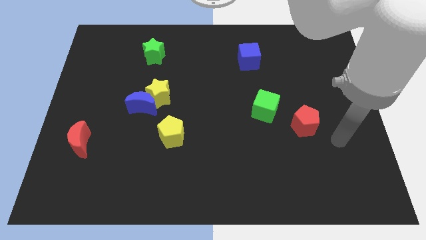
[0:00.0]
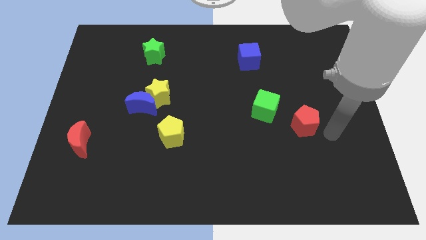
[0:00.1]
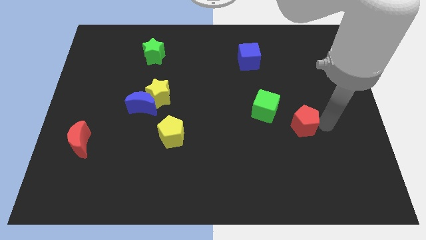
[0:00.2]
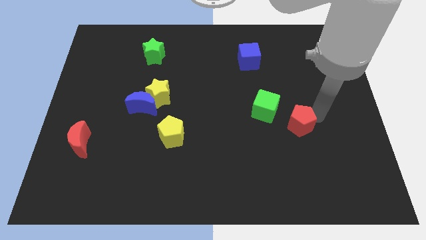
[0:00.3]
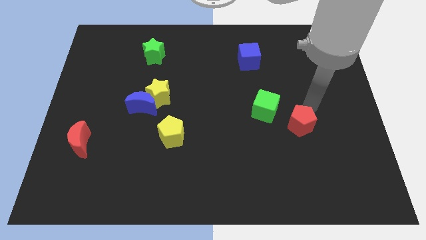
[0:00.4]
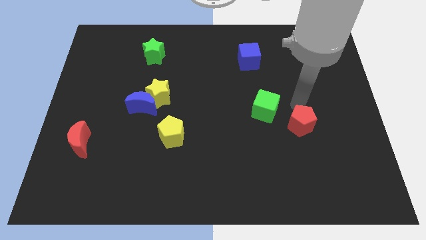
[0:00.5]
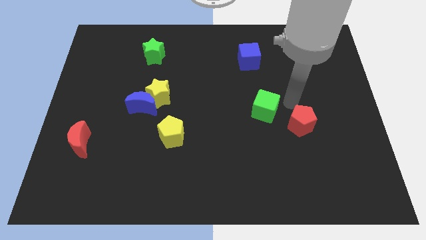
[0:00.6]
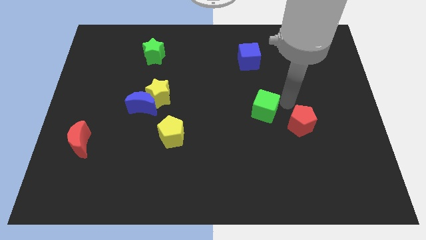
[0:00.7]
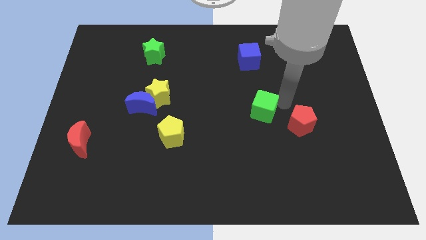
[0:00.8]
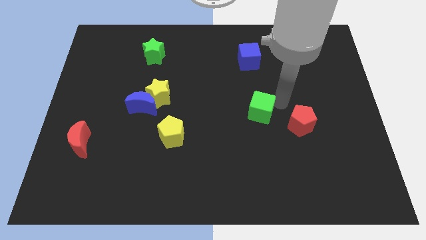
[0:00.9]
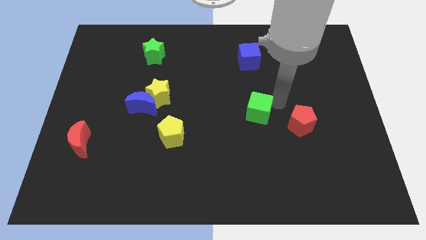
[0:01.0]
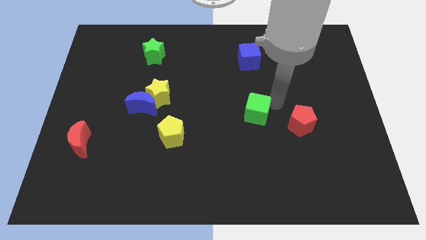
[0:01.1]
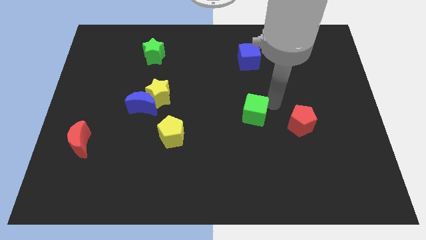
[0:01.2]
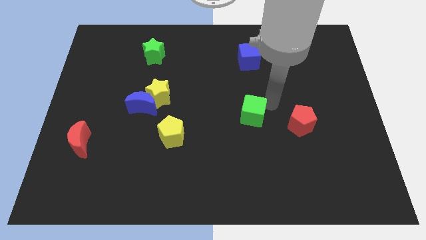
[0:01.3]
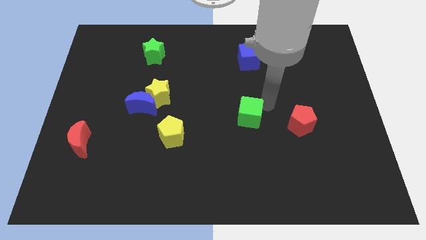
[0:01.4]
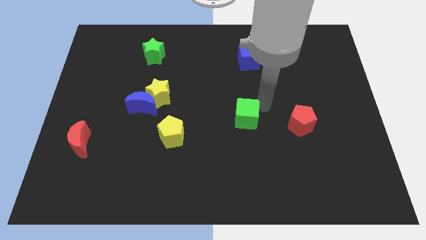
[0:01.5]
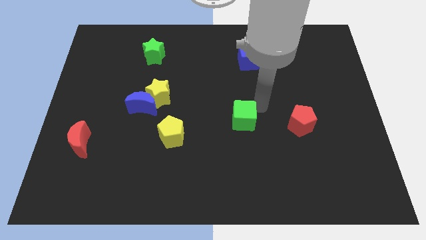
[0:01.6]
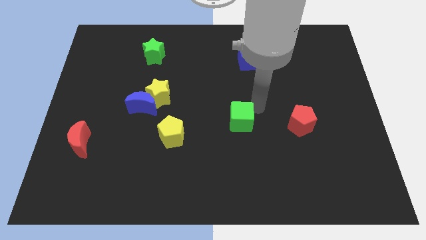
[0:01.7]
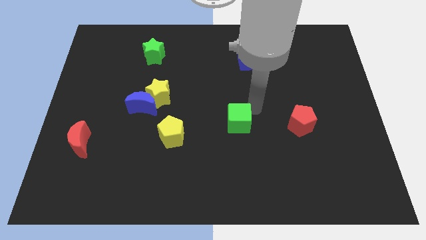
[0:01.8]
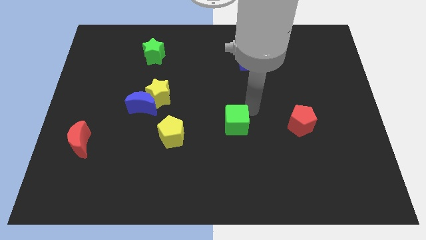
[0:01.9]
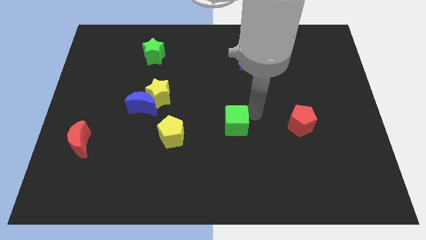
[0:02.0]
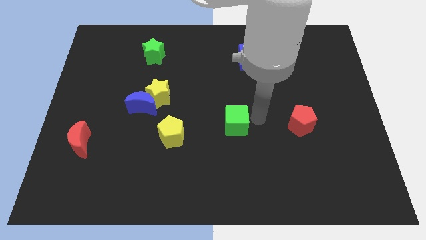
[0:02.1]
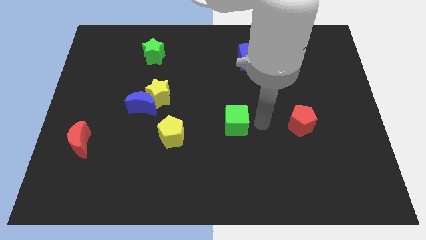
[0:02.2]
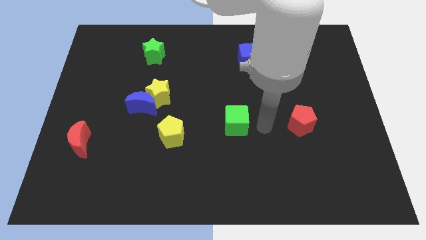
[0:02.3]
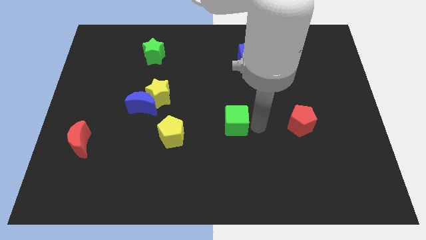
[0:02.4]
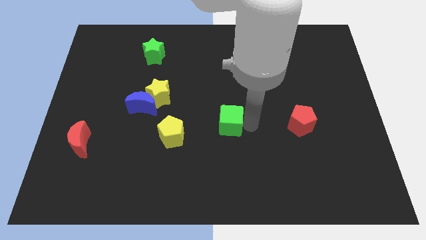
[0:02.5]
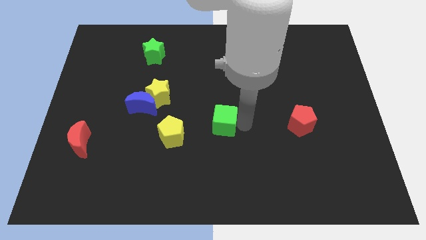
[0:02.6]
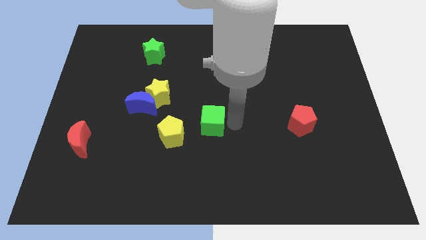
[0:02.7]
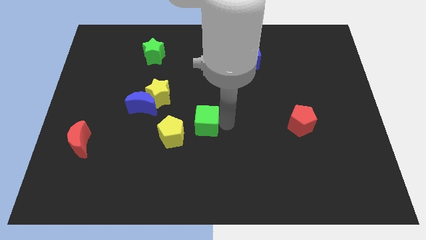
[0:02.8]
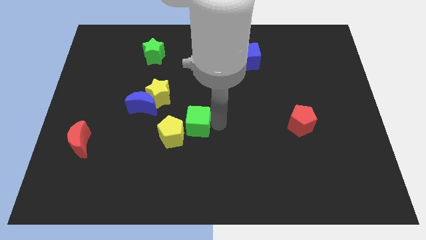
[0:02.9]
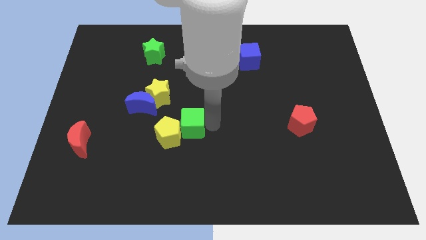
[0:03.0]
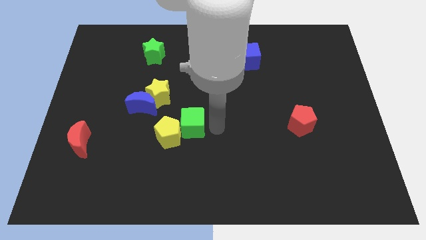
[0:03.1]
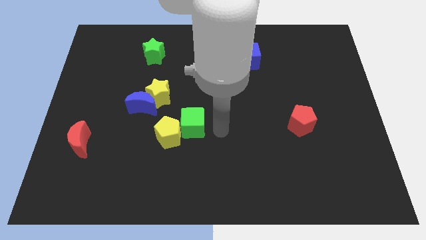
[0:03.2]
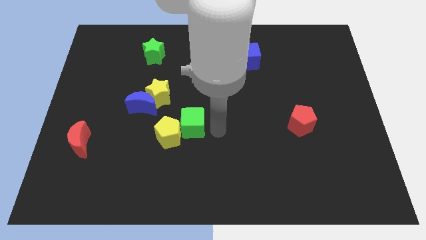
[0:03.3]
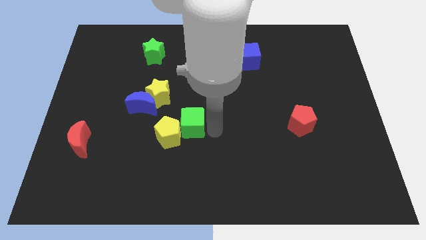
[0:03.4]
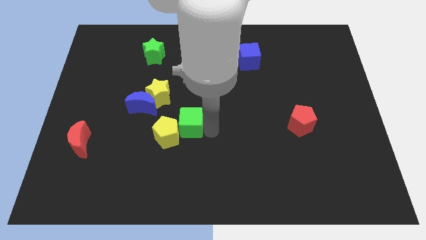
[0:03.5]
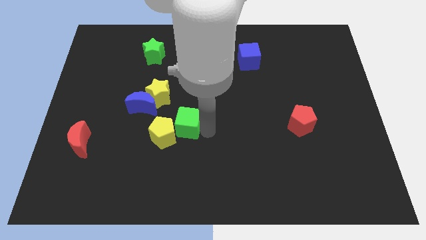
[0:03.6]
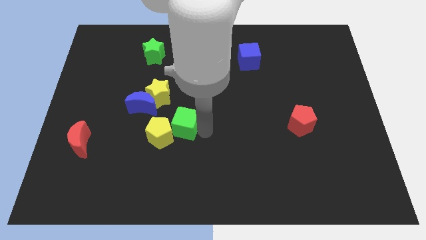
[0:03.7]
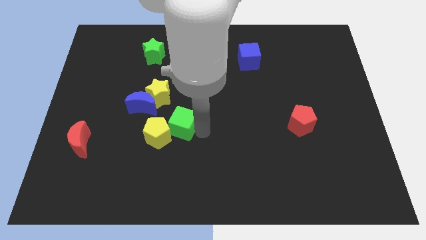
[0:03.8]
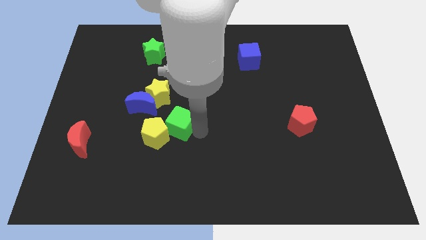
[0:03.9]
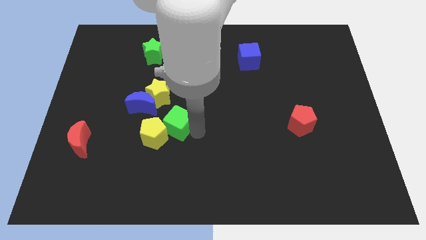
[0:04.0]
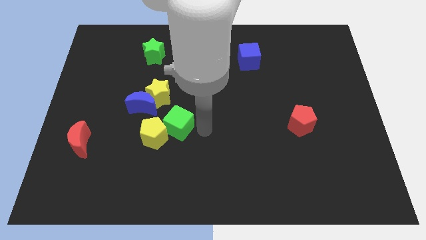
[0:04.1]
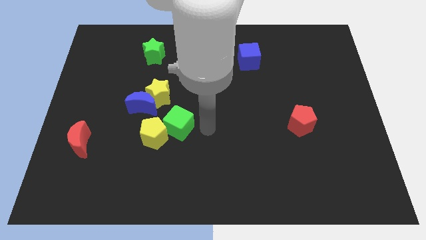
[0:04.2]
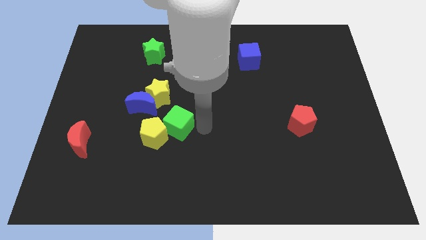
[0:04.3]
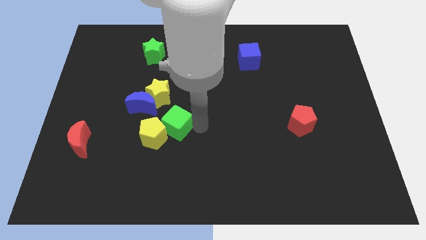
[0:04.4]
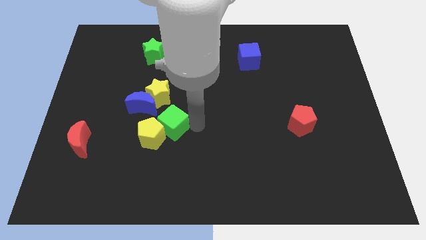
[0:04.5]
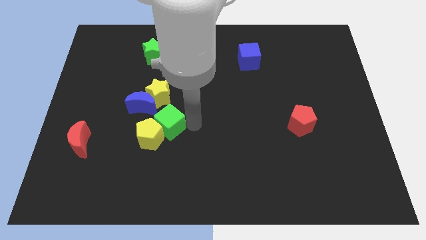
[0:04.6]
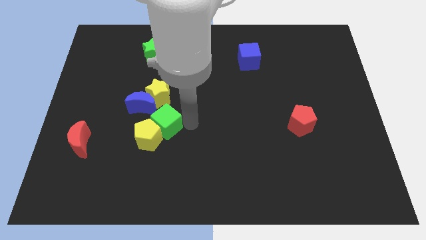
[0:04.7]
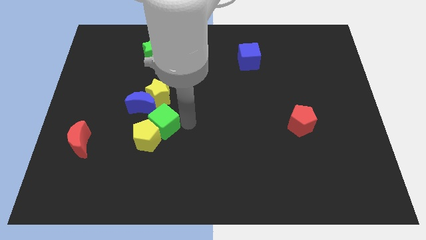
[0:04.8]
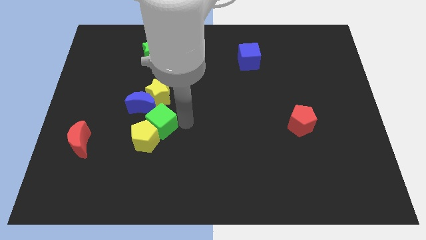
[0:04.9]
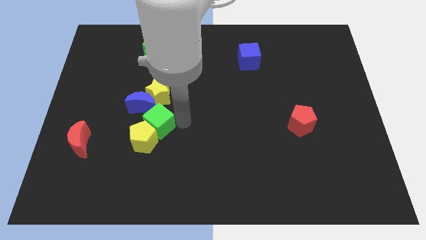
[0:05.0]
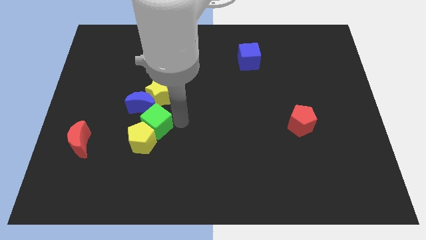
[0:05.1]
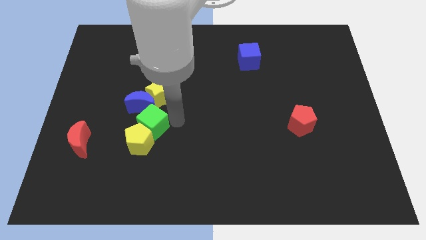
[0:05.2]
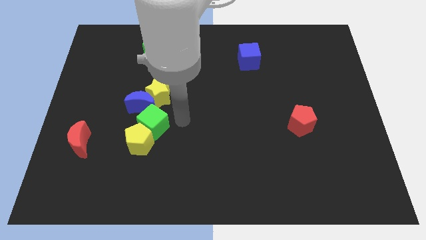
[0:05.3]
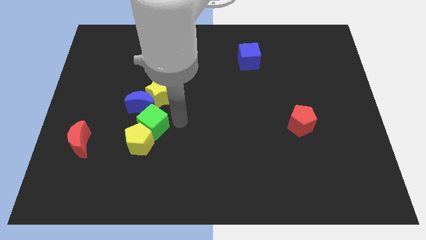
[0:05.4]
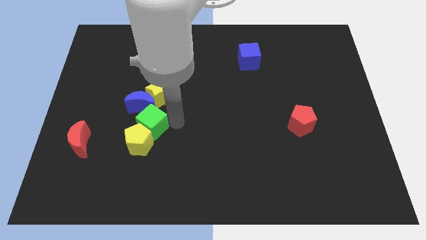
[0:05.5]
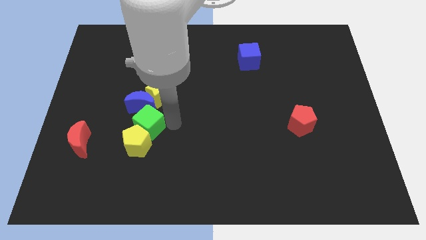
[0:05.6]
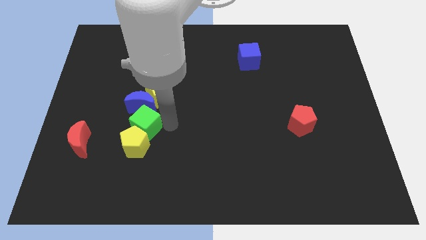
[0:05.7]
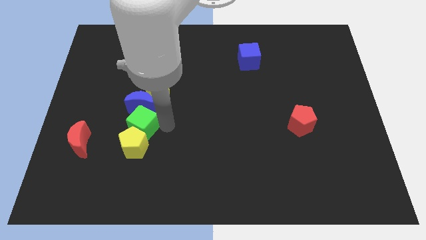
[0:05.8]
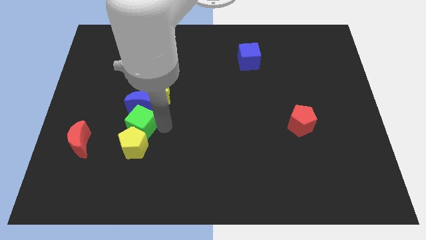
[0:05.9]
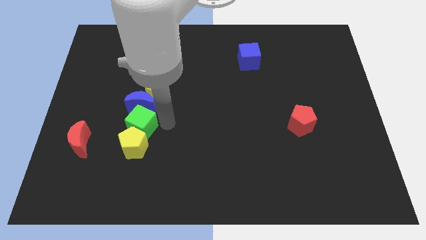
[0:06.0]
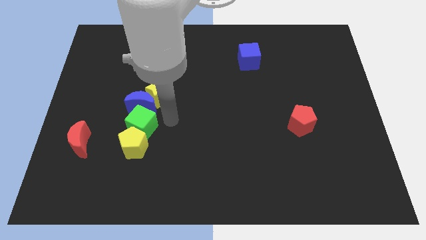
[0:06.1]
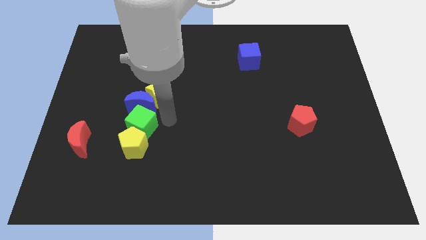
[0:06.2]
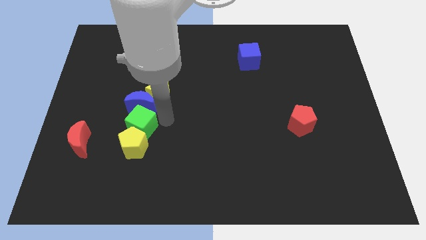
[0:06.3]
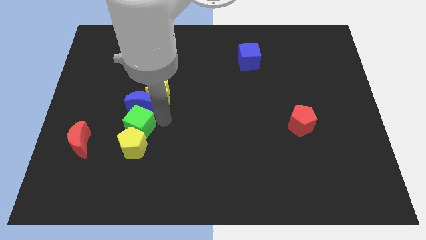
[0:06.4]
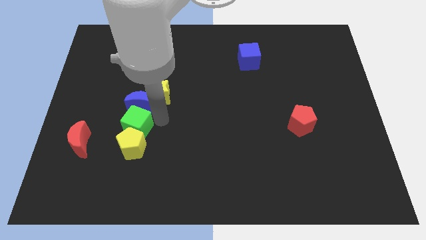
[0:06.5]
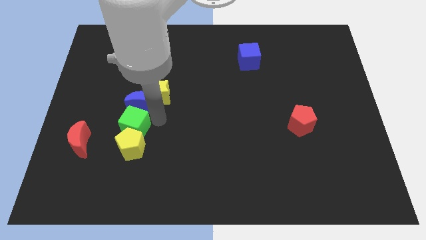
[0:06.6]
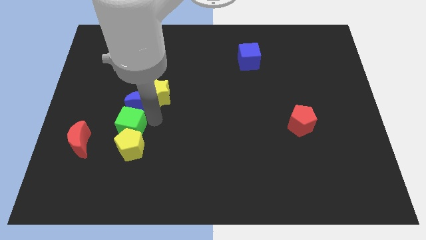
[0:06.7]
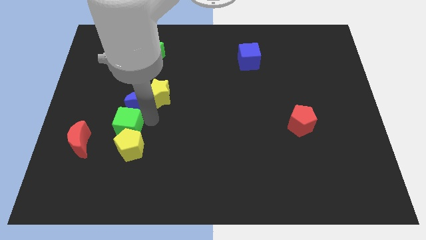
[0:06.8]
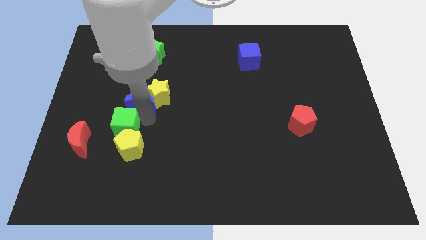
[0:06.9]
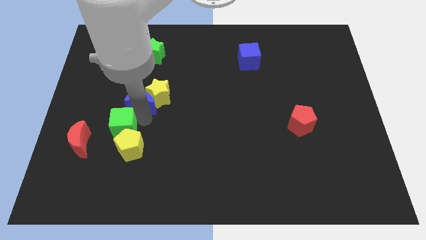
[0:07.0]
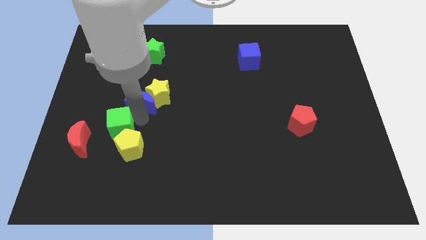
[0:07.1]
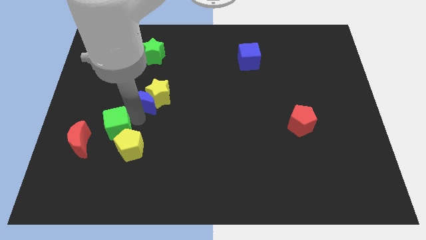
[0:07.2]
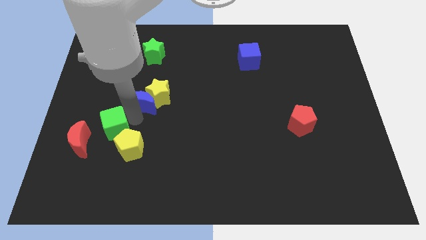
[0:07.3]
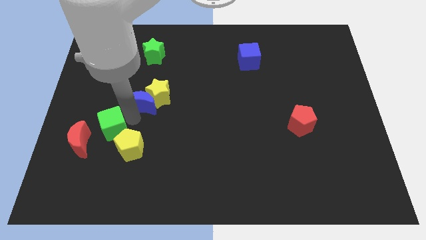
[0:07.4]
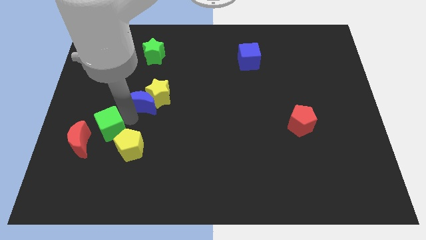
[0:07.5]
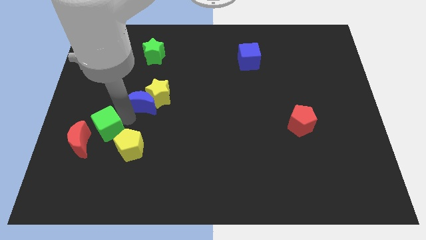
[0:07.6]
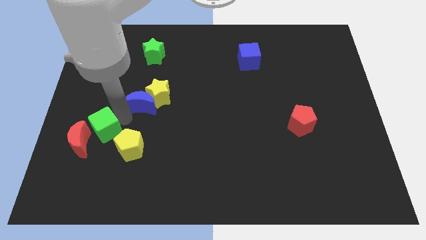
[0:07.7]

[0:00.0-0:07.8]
slide the green cube close to the red moon
